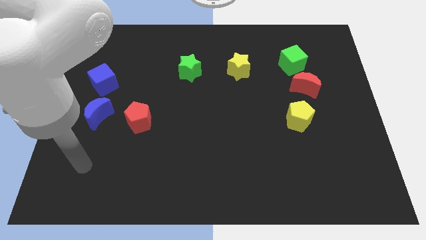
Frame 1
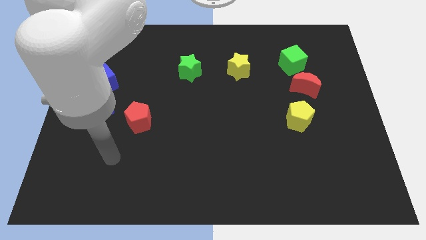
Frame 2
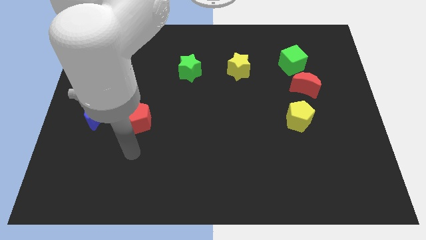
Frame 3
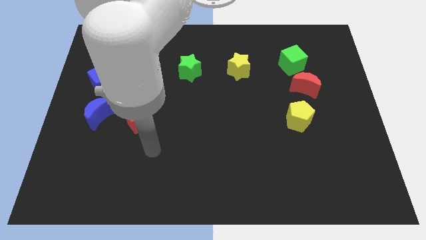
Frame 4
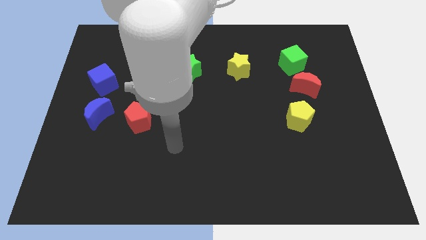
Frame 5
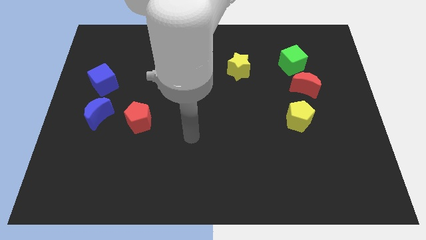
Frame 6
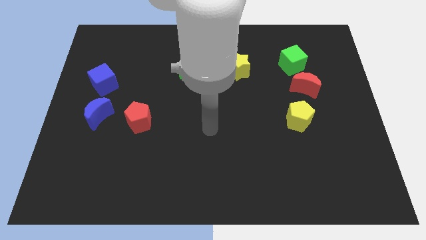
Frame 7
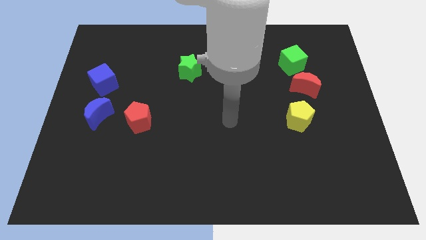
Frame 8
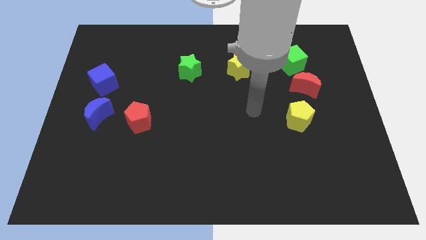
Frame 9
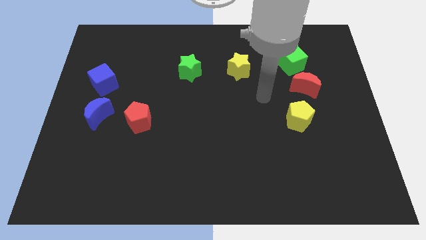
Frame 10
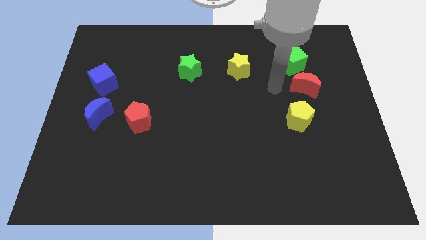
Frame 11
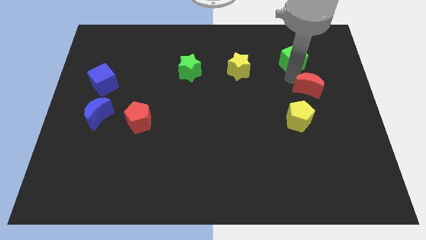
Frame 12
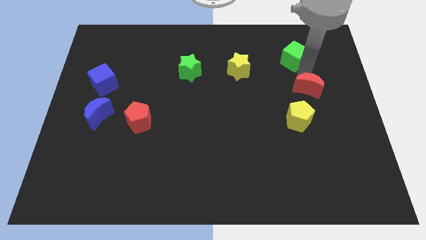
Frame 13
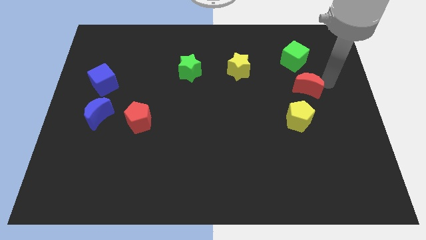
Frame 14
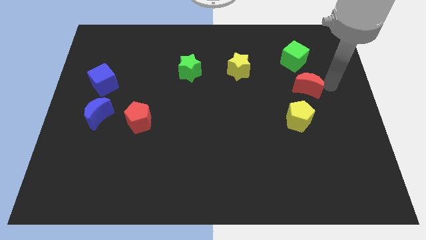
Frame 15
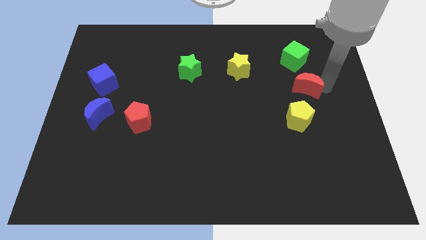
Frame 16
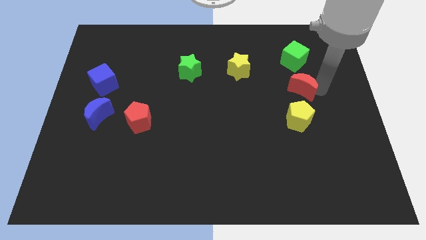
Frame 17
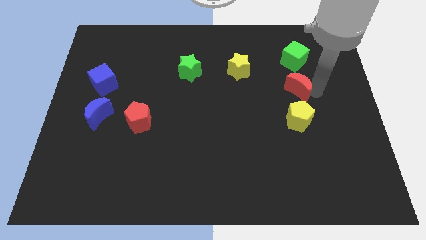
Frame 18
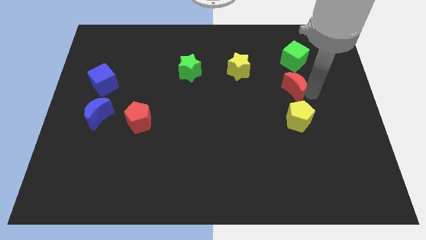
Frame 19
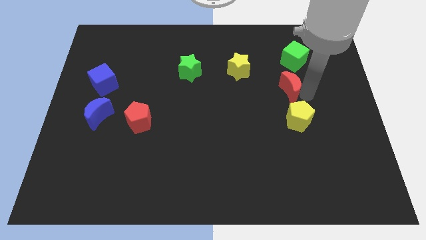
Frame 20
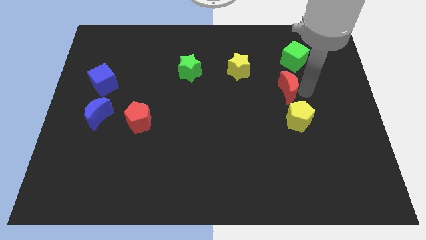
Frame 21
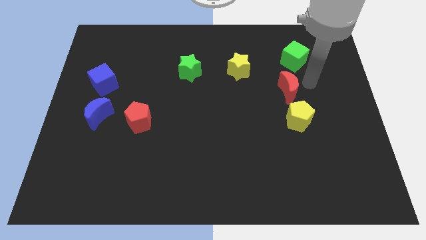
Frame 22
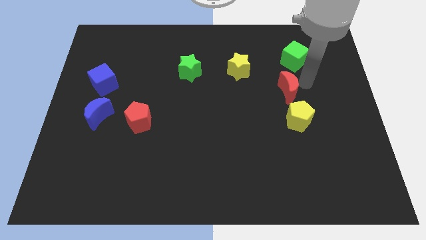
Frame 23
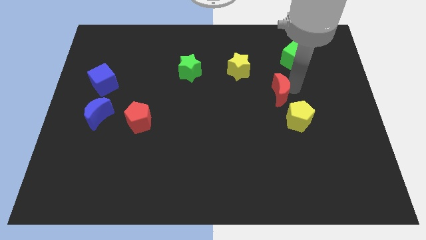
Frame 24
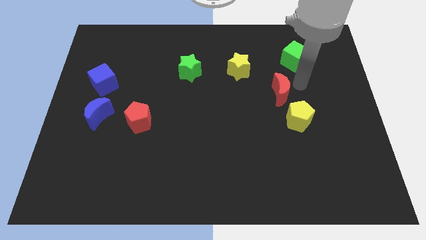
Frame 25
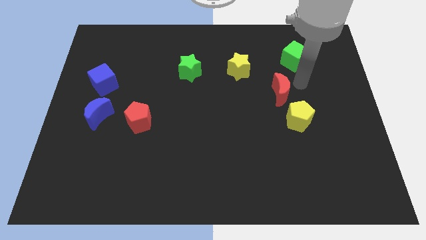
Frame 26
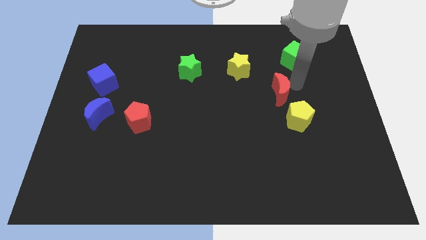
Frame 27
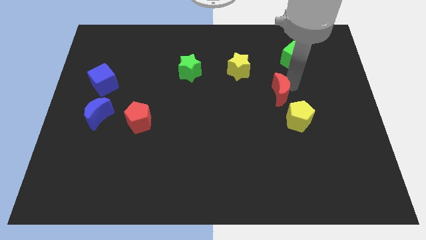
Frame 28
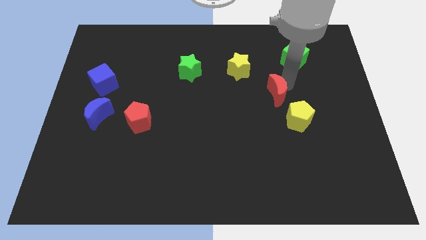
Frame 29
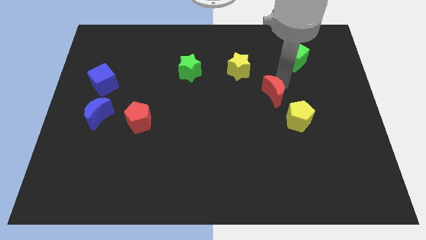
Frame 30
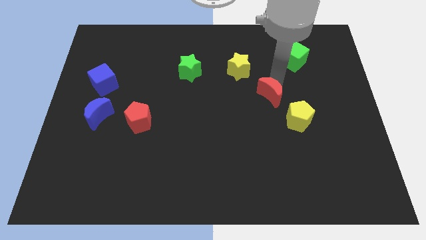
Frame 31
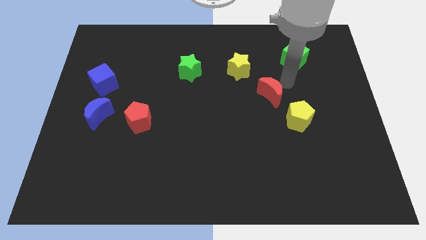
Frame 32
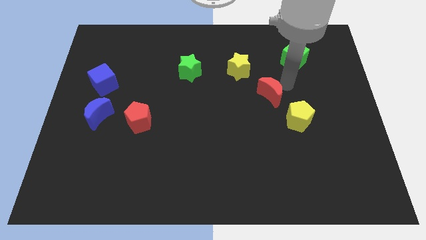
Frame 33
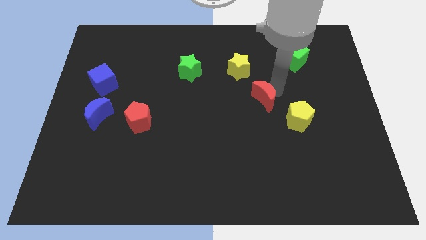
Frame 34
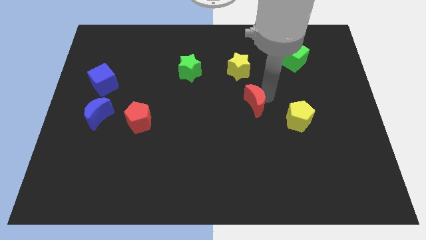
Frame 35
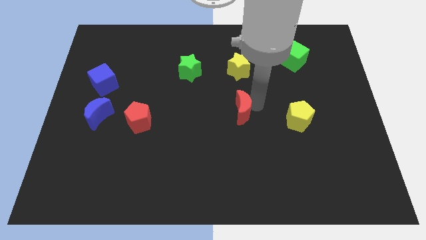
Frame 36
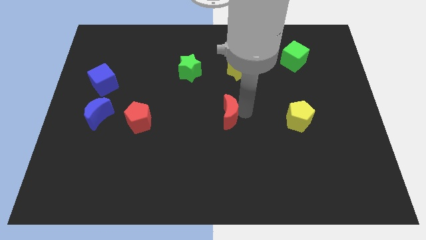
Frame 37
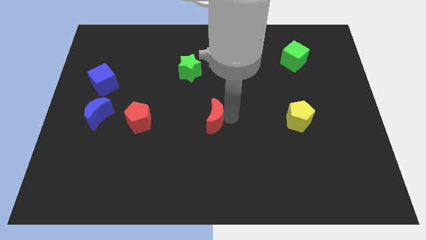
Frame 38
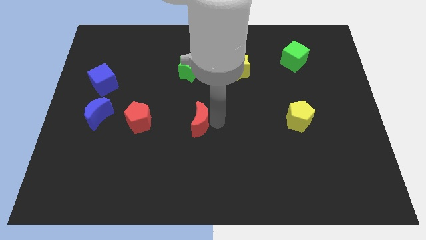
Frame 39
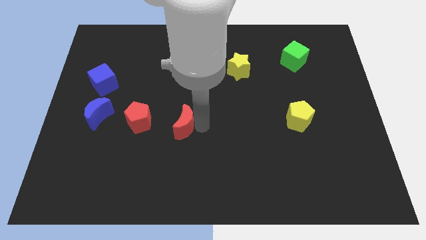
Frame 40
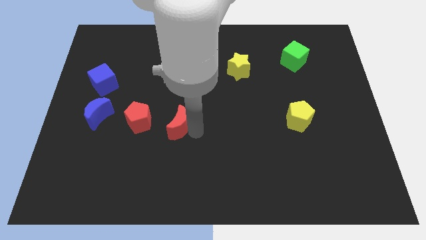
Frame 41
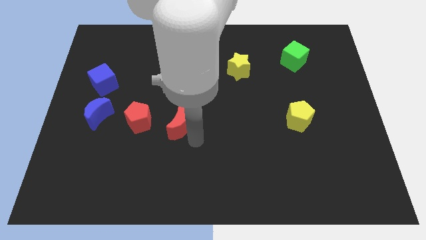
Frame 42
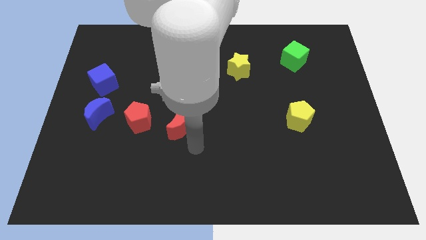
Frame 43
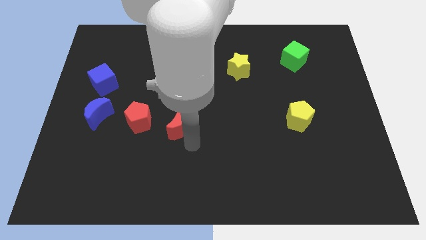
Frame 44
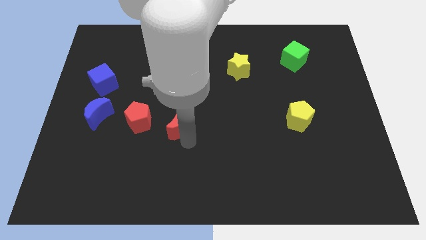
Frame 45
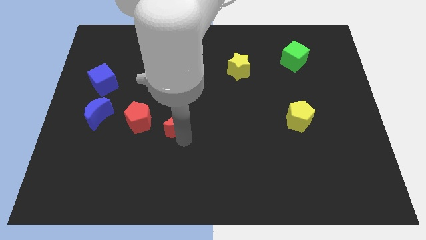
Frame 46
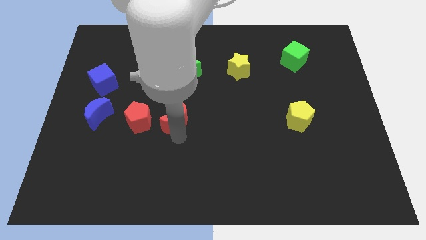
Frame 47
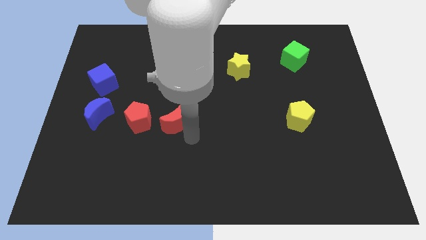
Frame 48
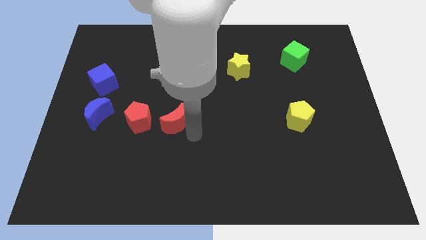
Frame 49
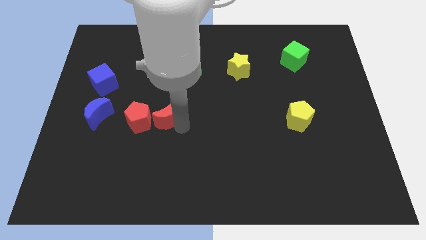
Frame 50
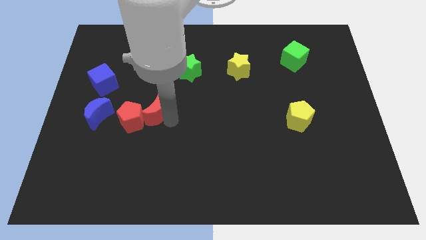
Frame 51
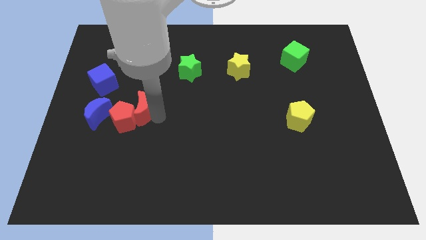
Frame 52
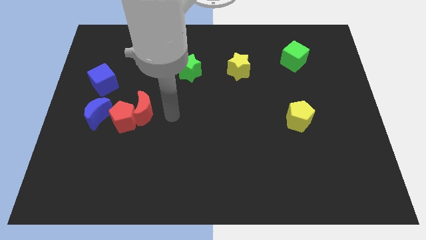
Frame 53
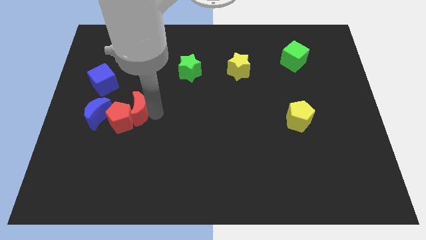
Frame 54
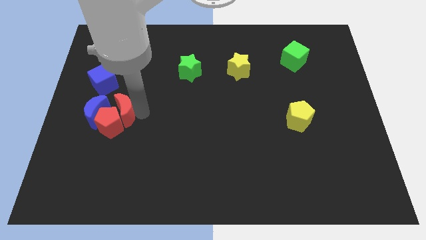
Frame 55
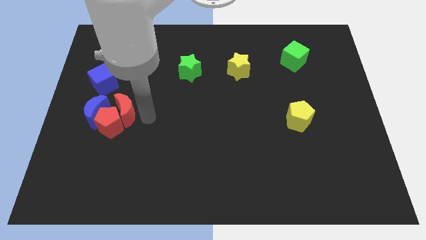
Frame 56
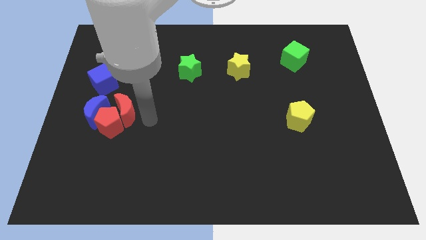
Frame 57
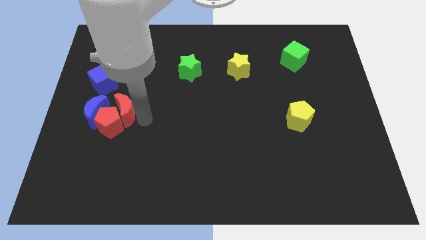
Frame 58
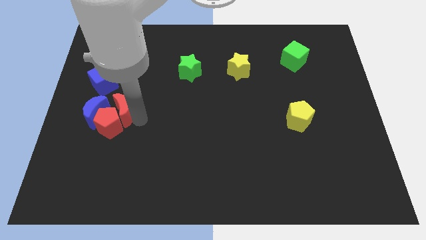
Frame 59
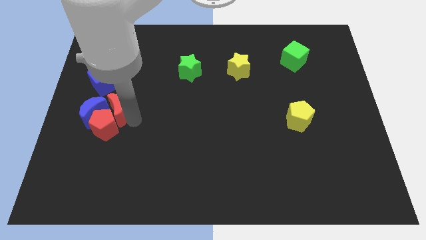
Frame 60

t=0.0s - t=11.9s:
slide the red moon towards the blue moon

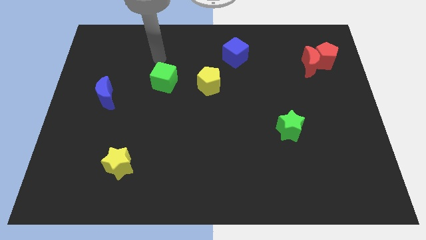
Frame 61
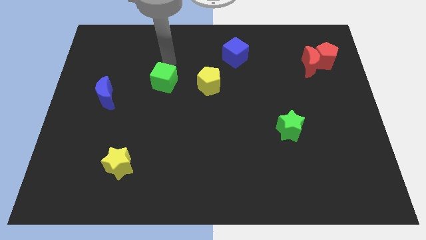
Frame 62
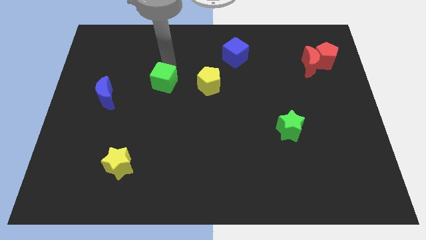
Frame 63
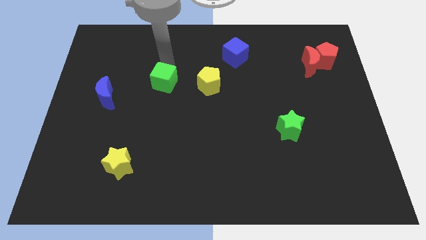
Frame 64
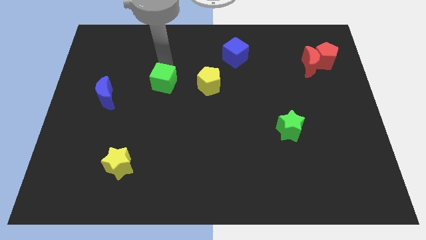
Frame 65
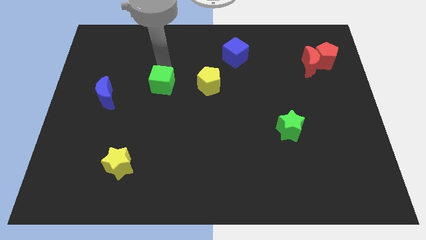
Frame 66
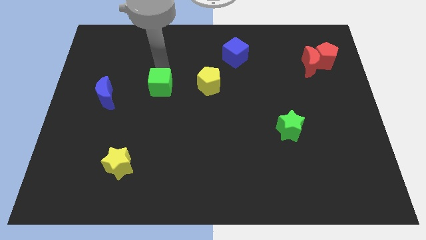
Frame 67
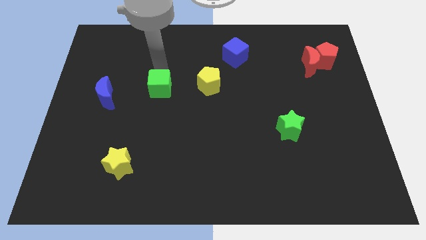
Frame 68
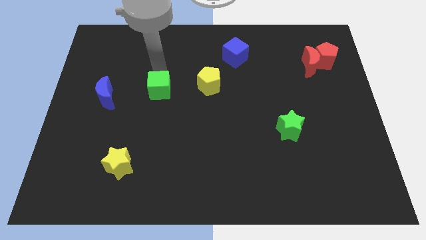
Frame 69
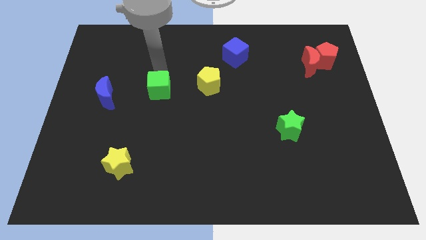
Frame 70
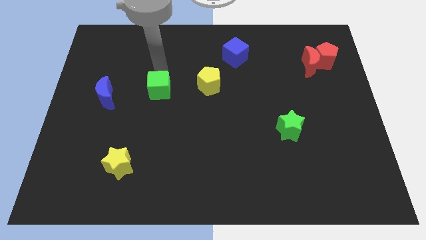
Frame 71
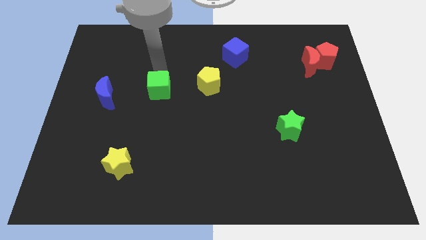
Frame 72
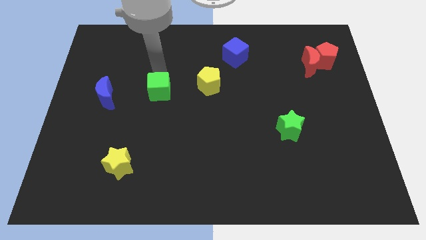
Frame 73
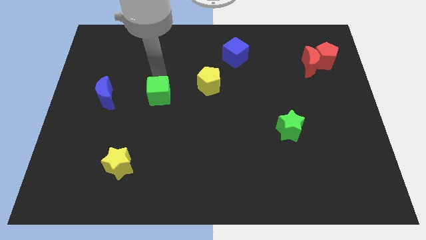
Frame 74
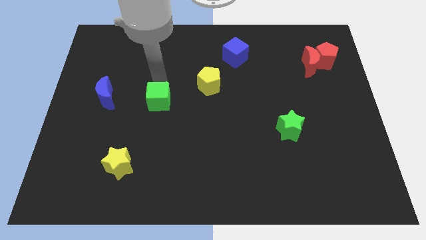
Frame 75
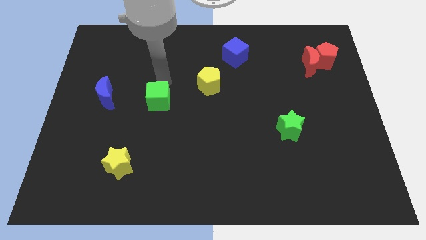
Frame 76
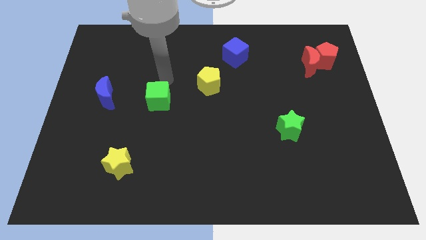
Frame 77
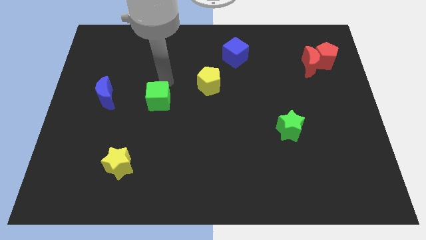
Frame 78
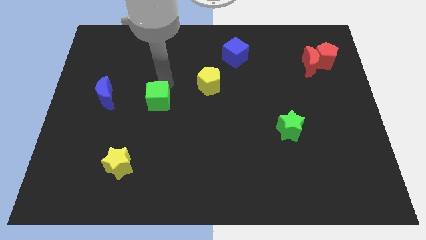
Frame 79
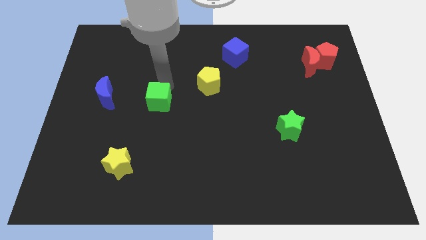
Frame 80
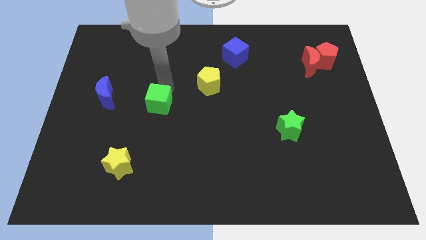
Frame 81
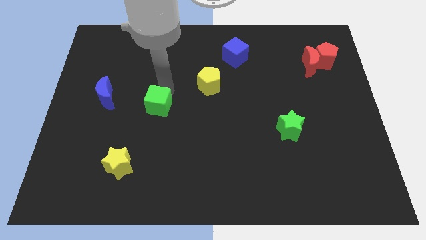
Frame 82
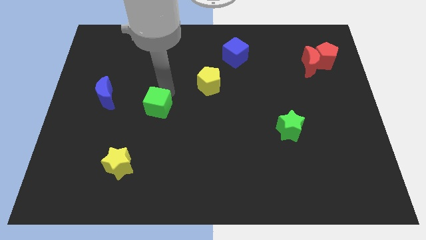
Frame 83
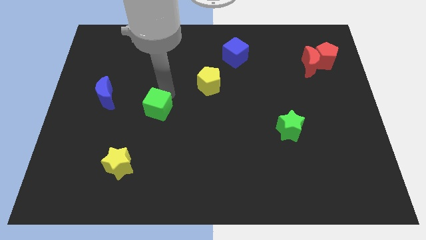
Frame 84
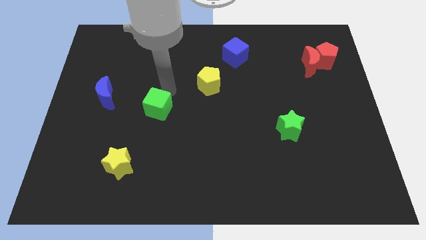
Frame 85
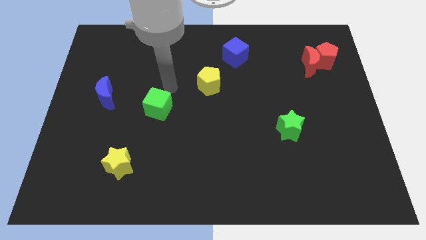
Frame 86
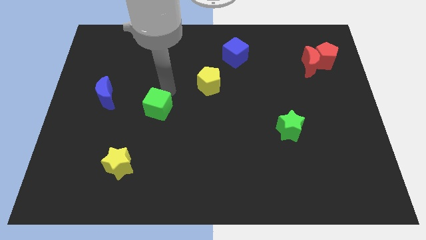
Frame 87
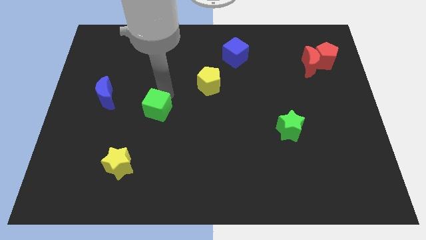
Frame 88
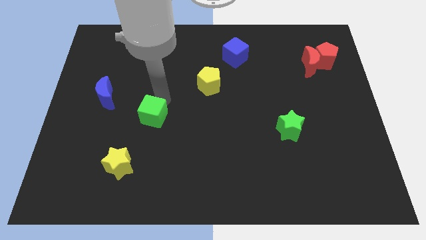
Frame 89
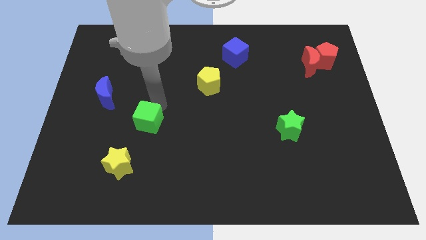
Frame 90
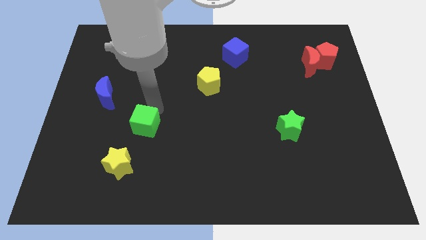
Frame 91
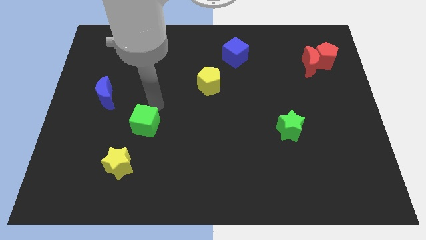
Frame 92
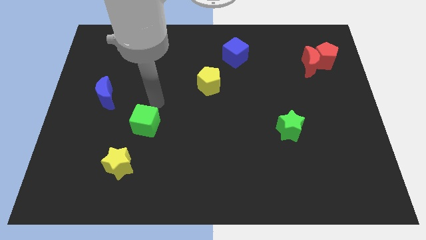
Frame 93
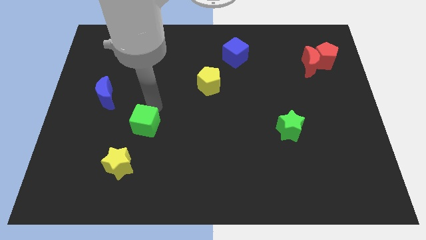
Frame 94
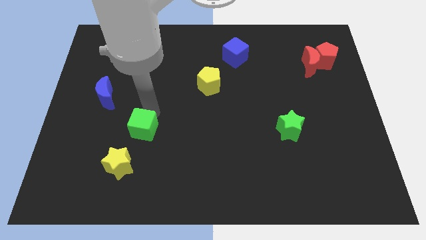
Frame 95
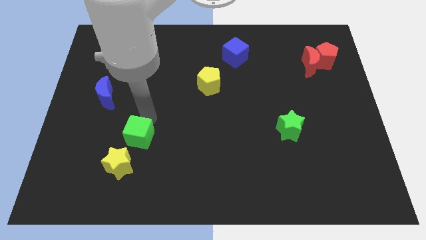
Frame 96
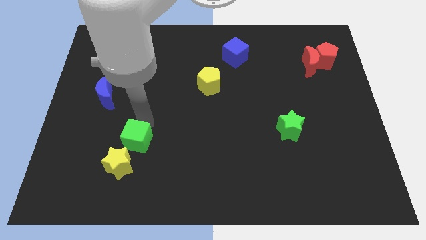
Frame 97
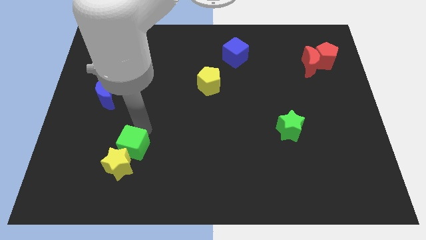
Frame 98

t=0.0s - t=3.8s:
slide the green cube to the yellow star
